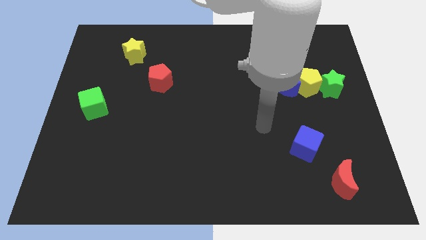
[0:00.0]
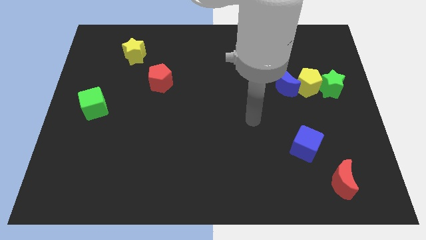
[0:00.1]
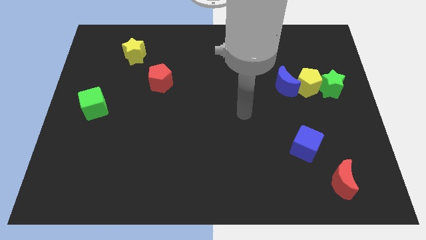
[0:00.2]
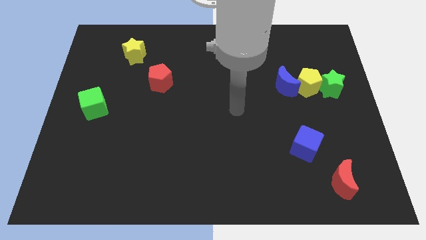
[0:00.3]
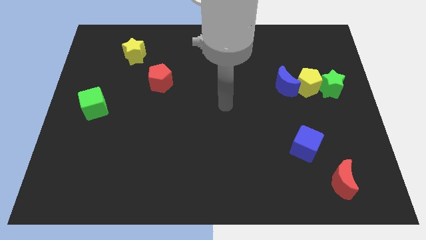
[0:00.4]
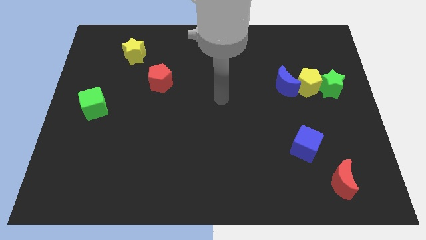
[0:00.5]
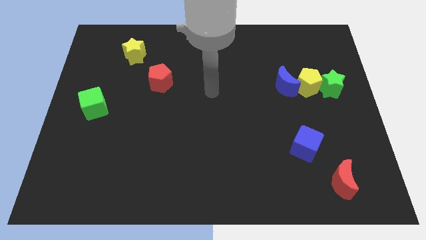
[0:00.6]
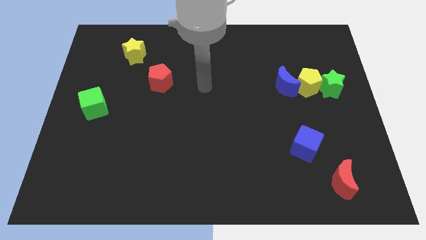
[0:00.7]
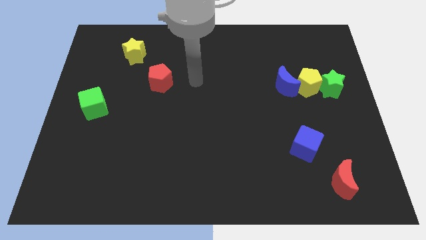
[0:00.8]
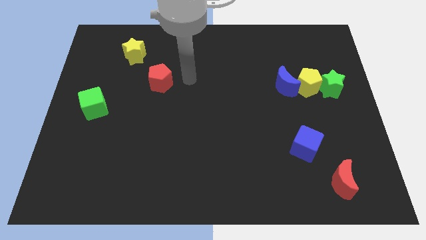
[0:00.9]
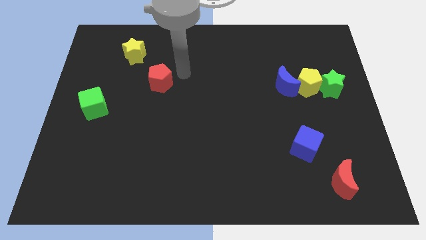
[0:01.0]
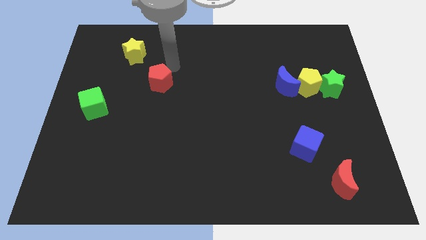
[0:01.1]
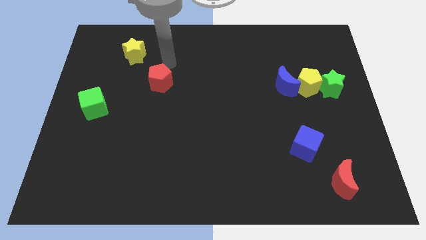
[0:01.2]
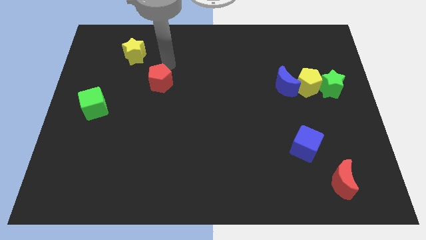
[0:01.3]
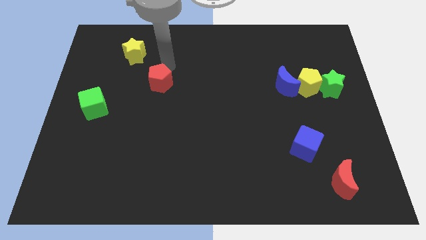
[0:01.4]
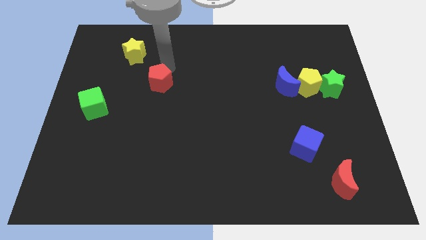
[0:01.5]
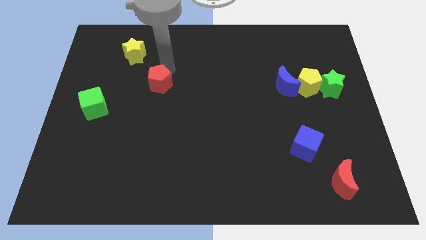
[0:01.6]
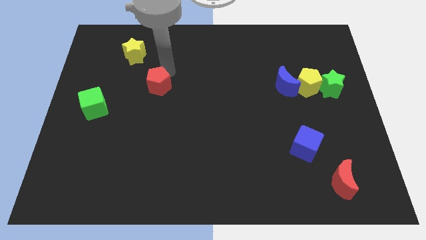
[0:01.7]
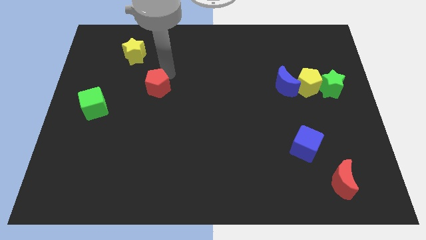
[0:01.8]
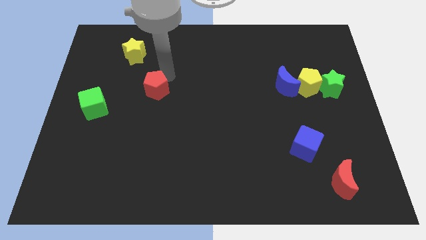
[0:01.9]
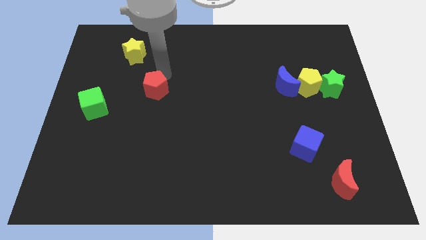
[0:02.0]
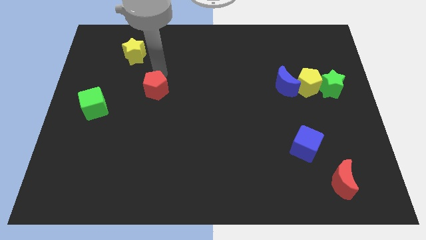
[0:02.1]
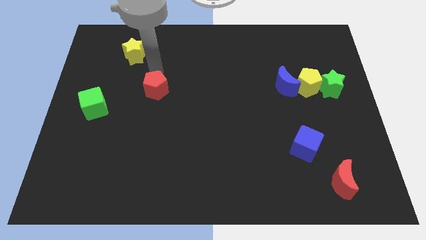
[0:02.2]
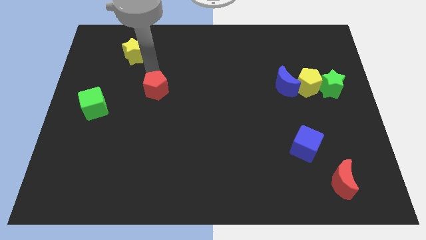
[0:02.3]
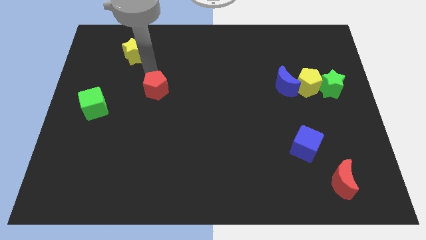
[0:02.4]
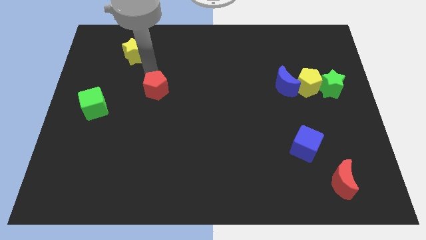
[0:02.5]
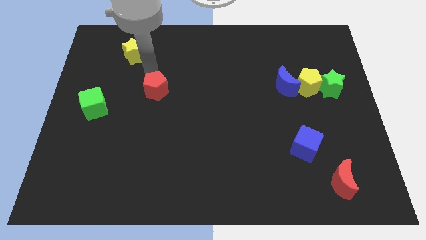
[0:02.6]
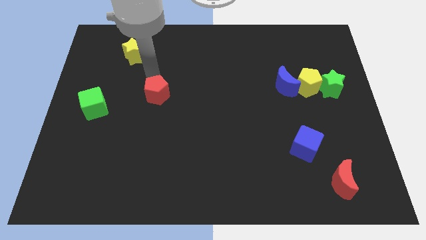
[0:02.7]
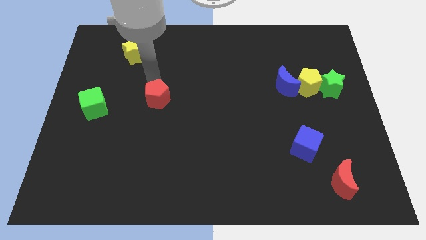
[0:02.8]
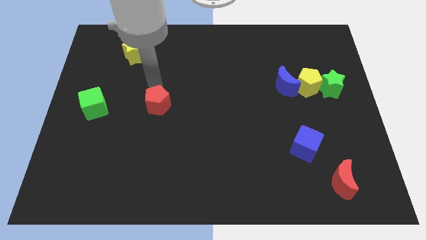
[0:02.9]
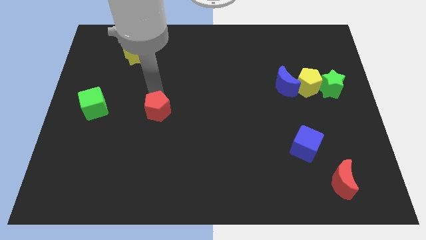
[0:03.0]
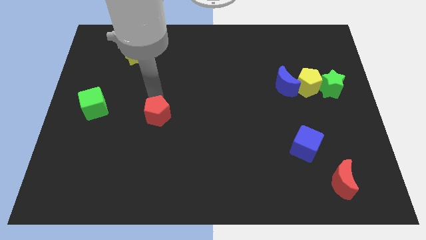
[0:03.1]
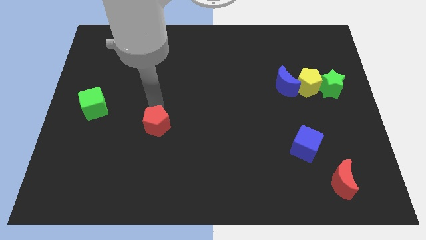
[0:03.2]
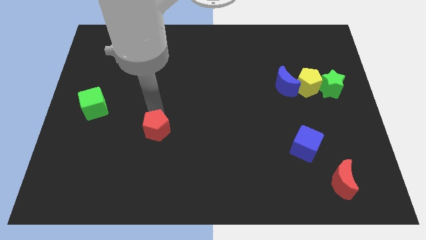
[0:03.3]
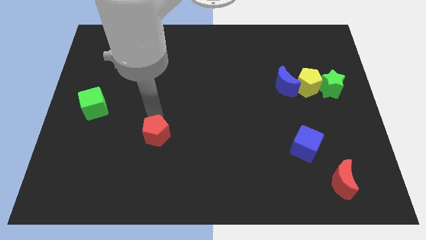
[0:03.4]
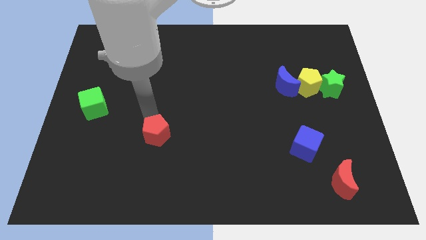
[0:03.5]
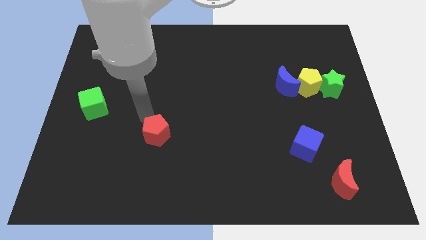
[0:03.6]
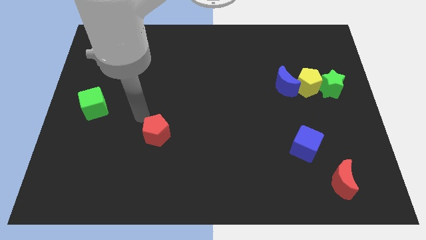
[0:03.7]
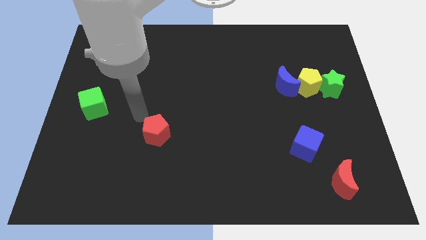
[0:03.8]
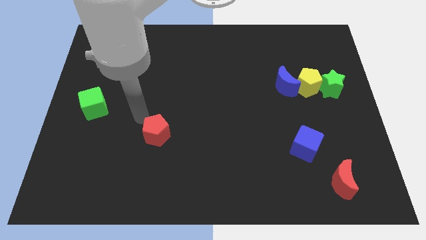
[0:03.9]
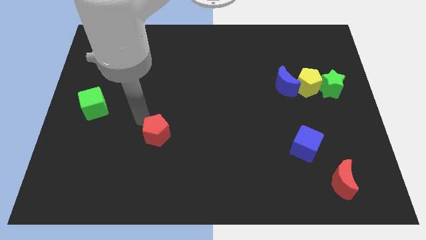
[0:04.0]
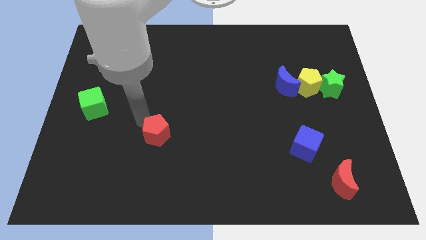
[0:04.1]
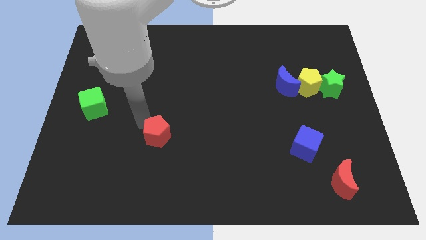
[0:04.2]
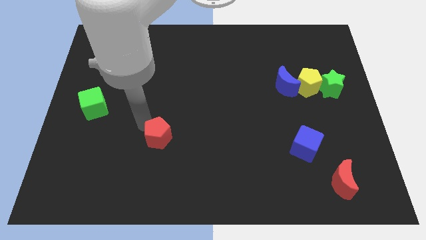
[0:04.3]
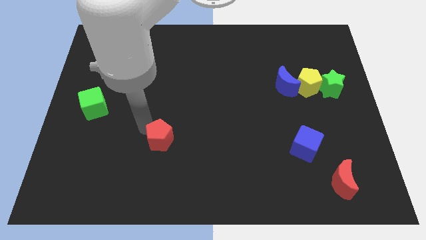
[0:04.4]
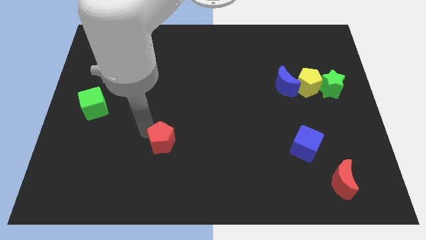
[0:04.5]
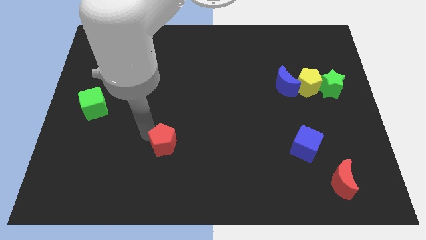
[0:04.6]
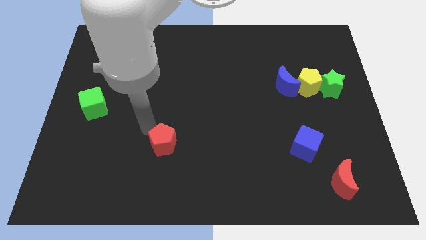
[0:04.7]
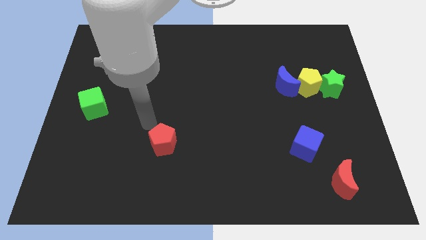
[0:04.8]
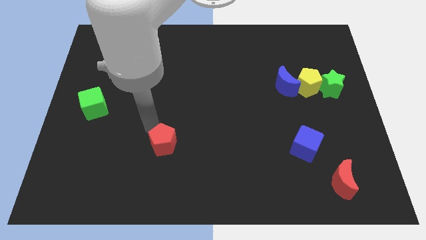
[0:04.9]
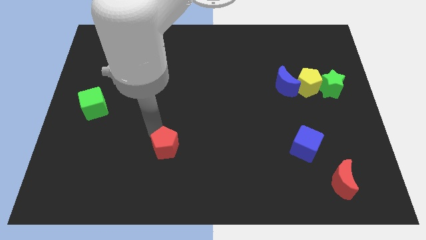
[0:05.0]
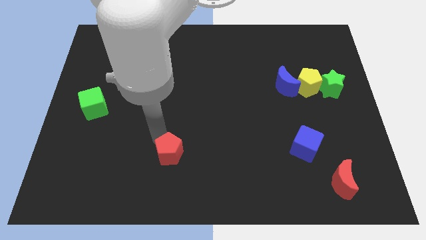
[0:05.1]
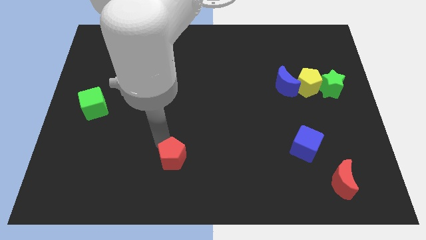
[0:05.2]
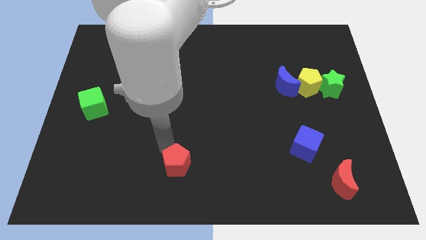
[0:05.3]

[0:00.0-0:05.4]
move the red pentagon to the bottom side
